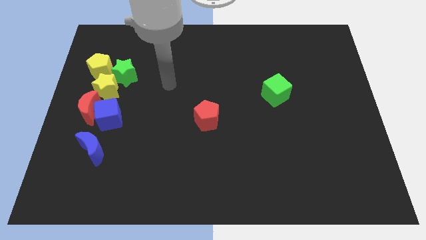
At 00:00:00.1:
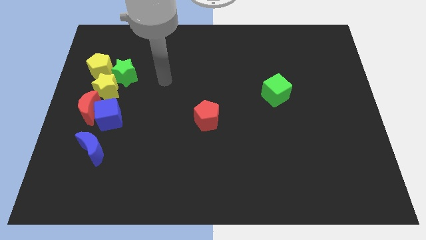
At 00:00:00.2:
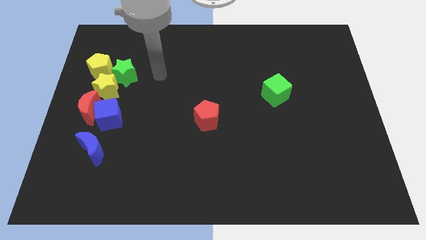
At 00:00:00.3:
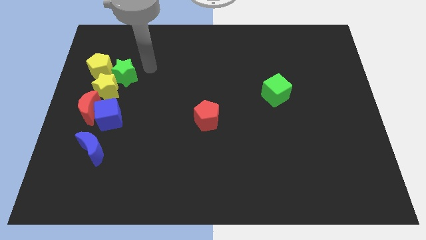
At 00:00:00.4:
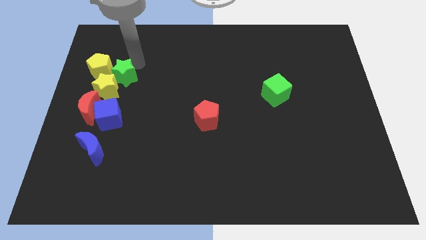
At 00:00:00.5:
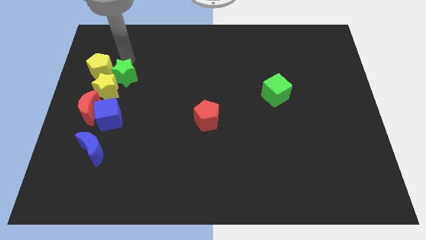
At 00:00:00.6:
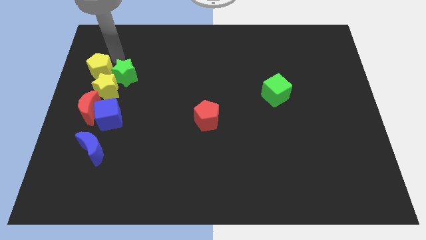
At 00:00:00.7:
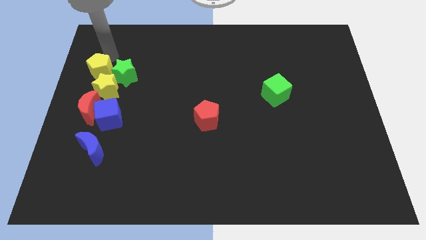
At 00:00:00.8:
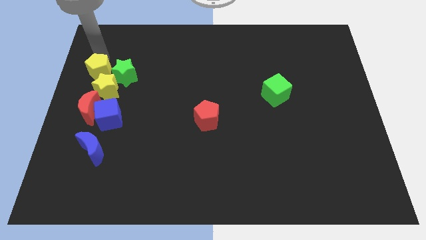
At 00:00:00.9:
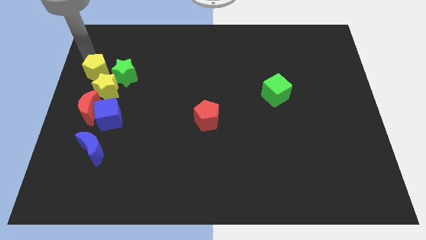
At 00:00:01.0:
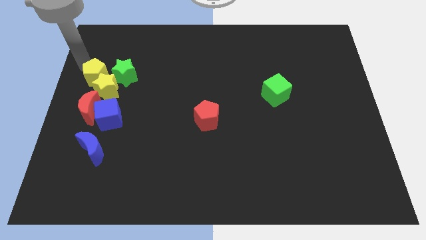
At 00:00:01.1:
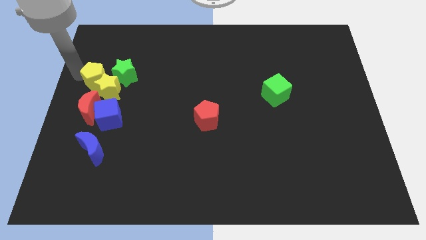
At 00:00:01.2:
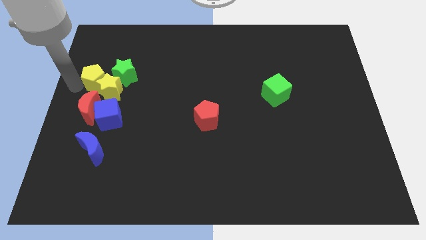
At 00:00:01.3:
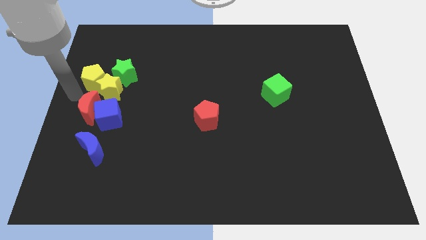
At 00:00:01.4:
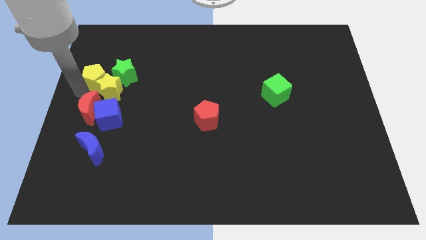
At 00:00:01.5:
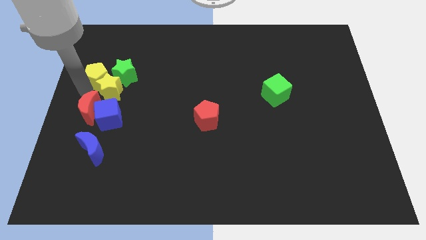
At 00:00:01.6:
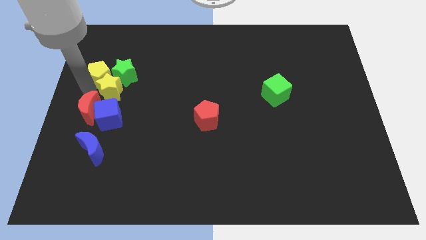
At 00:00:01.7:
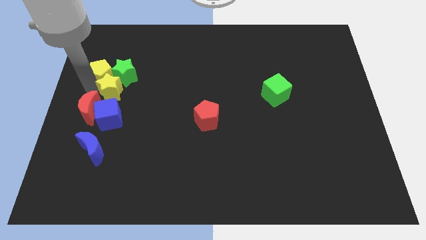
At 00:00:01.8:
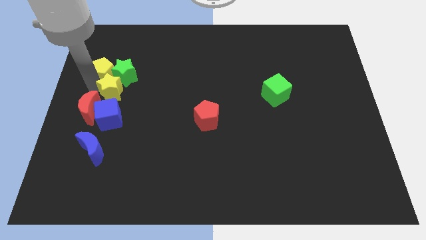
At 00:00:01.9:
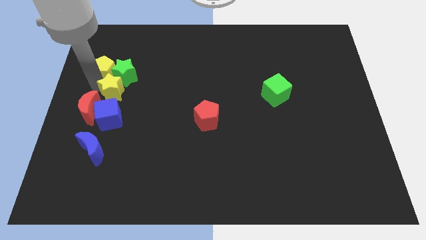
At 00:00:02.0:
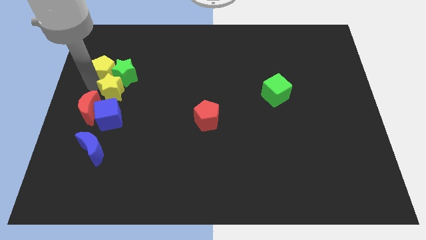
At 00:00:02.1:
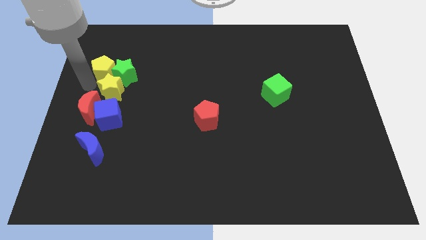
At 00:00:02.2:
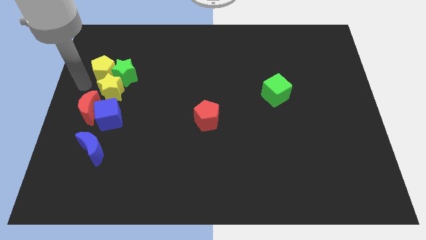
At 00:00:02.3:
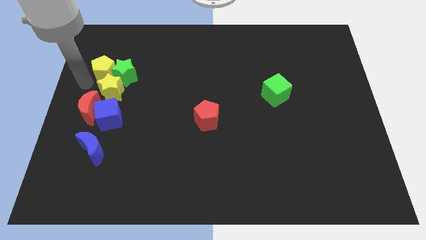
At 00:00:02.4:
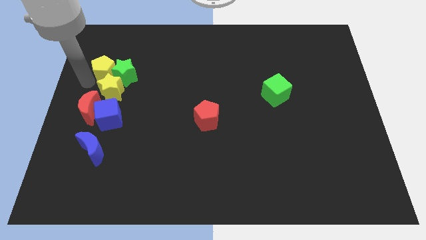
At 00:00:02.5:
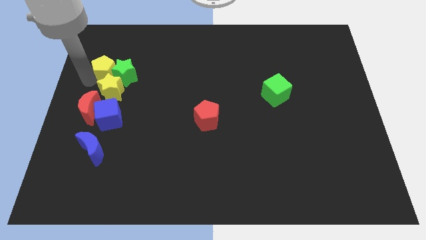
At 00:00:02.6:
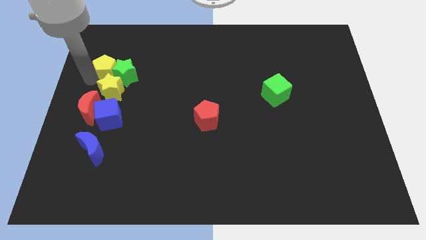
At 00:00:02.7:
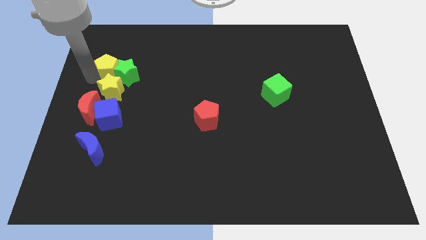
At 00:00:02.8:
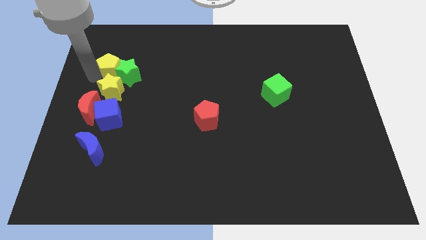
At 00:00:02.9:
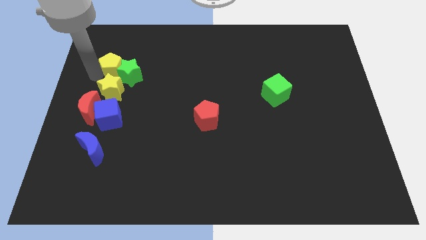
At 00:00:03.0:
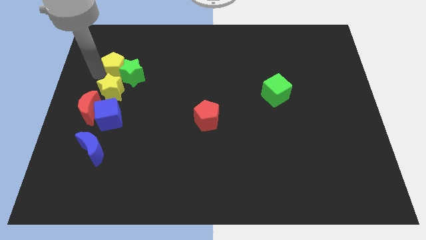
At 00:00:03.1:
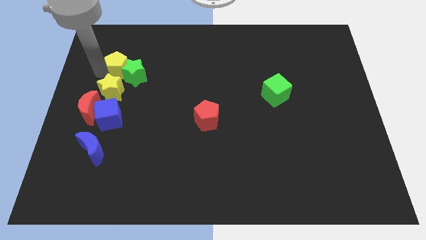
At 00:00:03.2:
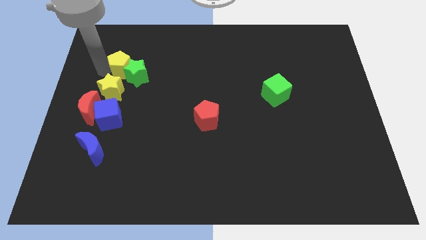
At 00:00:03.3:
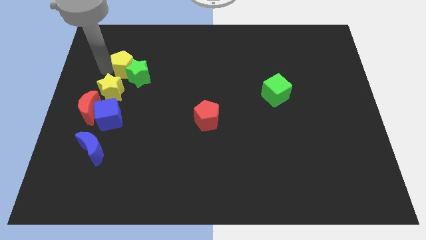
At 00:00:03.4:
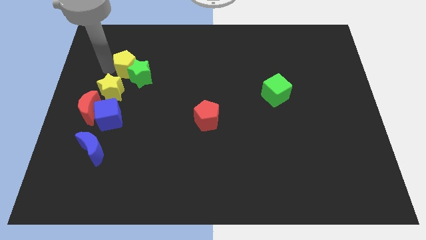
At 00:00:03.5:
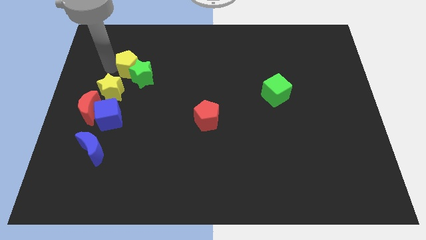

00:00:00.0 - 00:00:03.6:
slightly slide the yellow pentagon to the right

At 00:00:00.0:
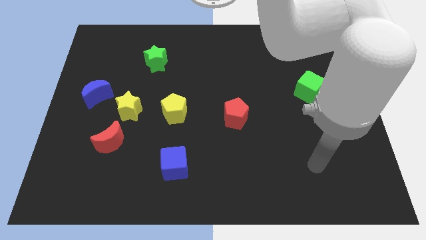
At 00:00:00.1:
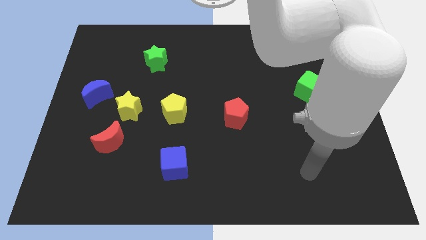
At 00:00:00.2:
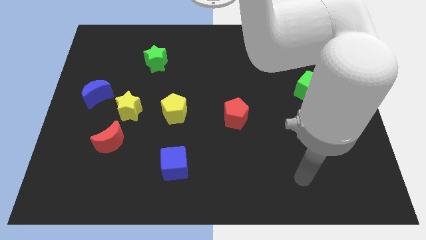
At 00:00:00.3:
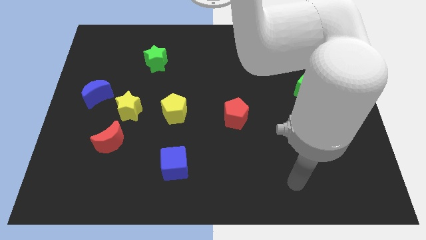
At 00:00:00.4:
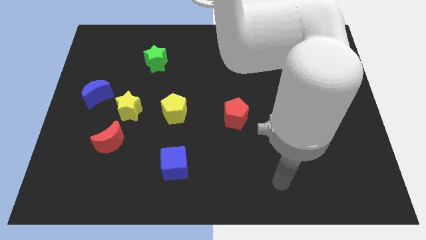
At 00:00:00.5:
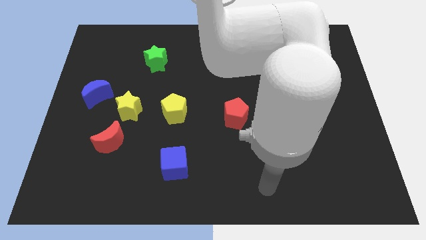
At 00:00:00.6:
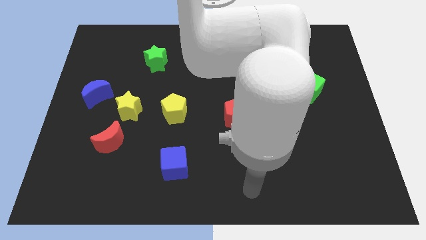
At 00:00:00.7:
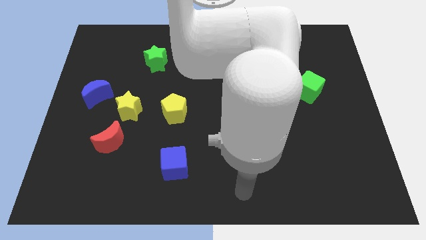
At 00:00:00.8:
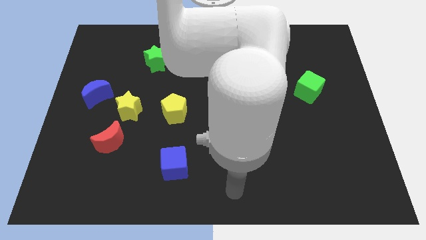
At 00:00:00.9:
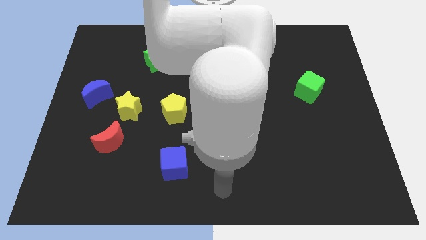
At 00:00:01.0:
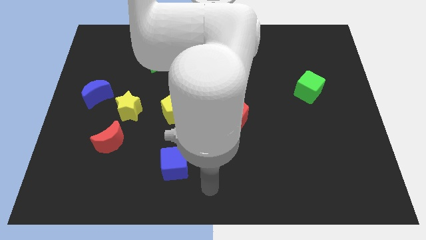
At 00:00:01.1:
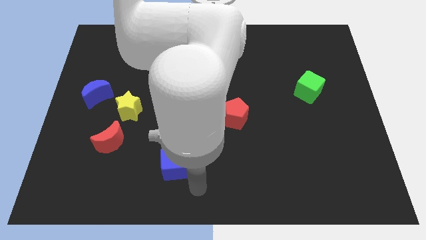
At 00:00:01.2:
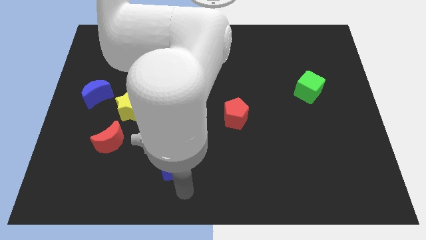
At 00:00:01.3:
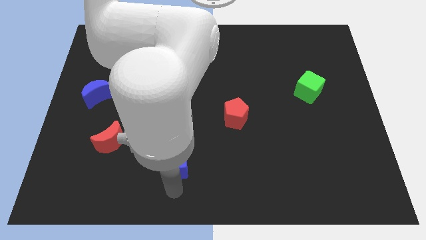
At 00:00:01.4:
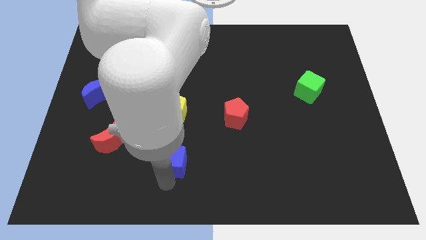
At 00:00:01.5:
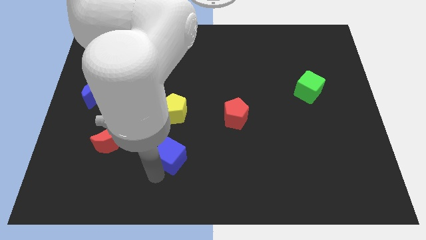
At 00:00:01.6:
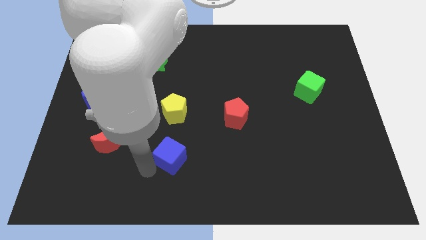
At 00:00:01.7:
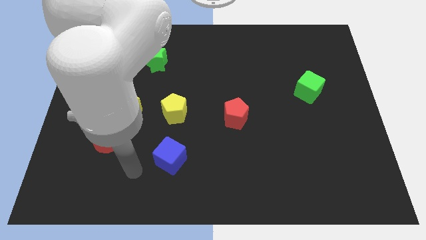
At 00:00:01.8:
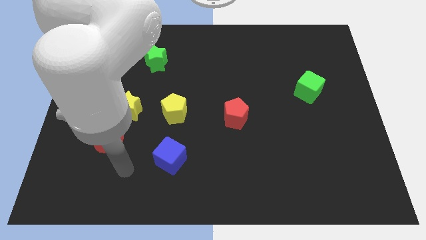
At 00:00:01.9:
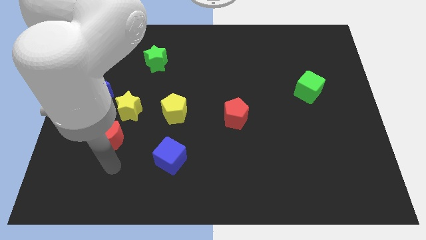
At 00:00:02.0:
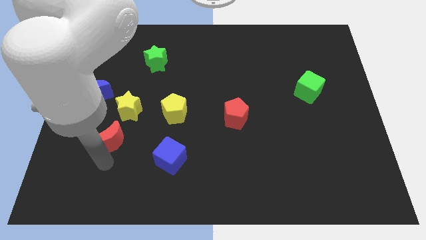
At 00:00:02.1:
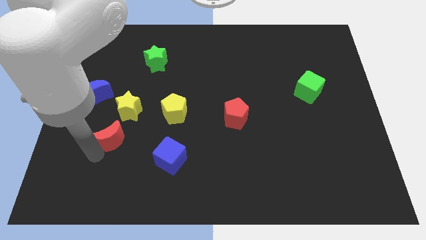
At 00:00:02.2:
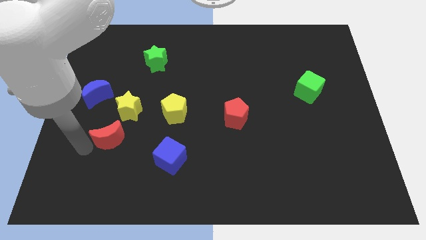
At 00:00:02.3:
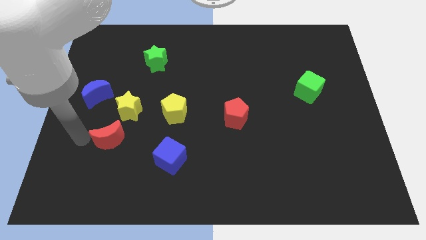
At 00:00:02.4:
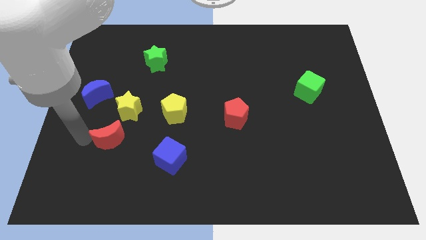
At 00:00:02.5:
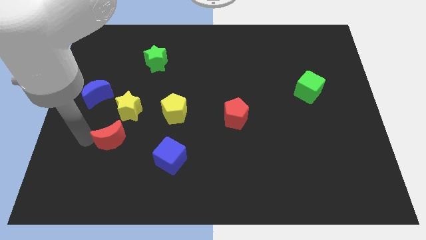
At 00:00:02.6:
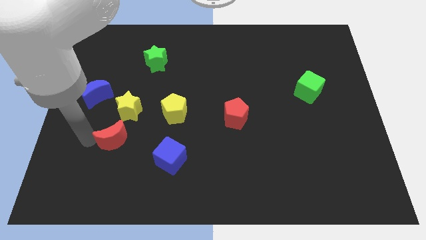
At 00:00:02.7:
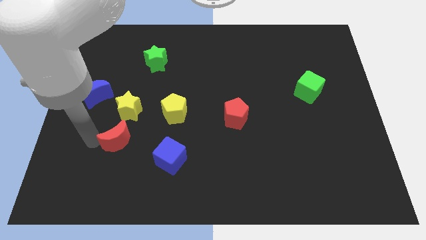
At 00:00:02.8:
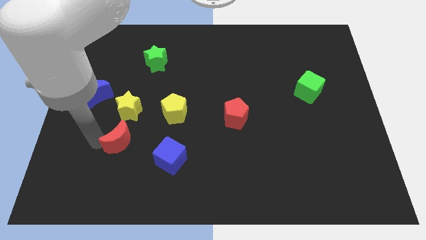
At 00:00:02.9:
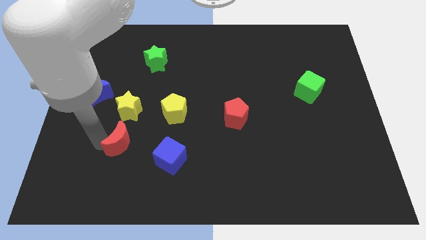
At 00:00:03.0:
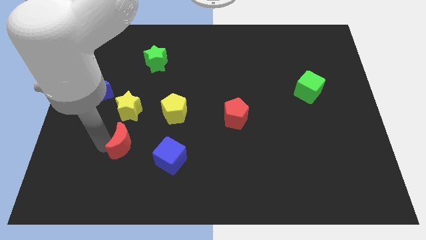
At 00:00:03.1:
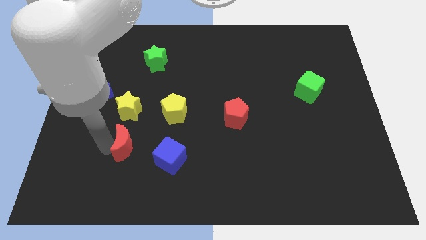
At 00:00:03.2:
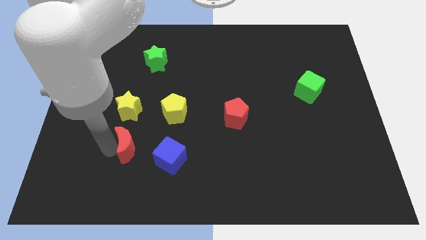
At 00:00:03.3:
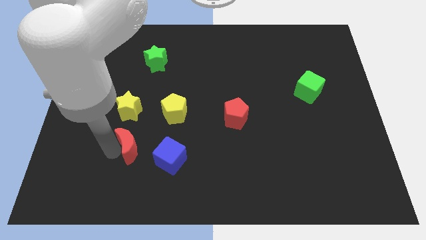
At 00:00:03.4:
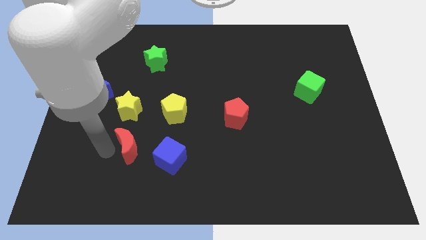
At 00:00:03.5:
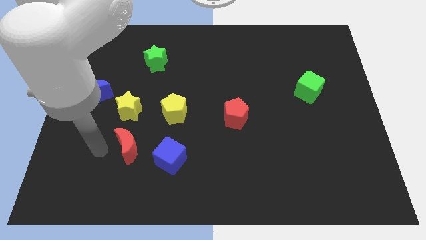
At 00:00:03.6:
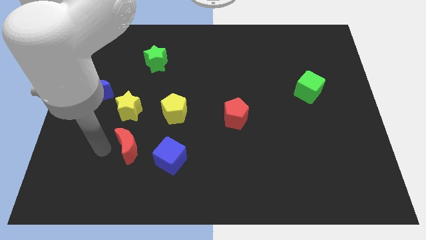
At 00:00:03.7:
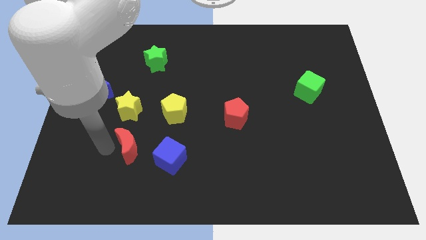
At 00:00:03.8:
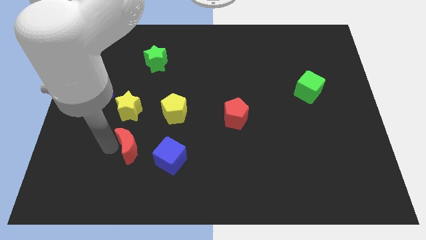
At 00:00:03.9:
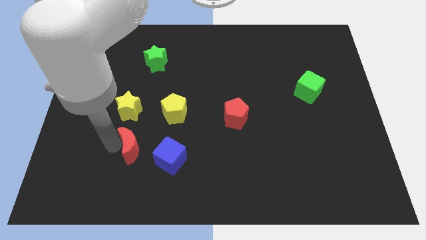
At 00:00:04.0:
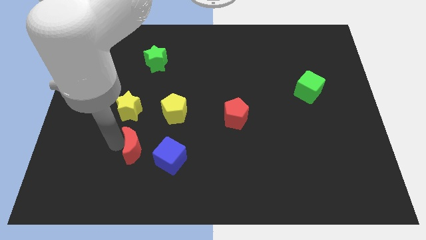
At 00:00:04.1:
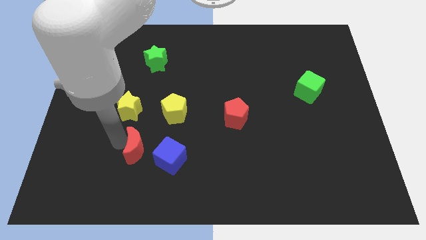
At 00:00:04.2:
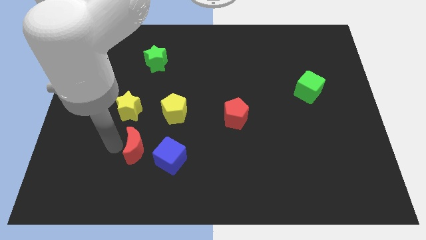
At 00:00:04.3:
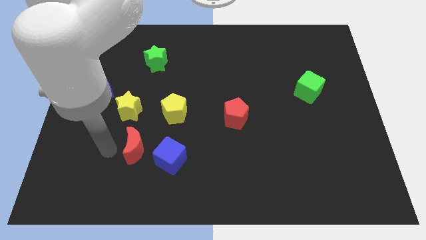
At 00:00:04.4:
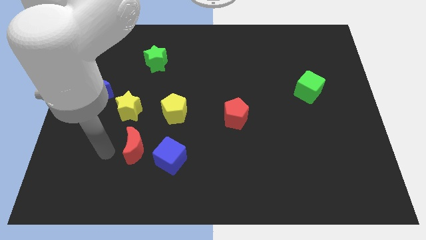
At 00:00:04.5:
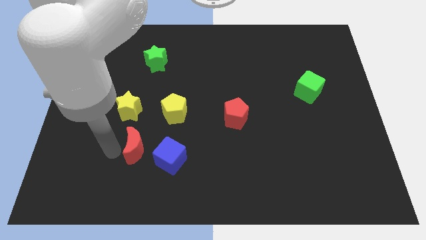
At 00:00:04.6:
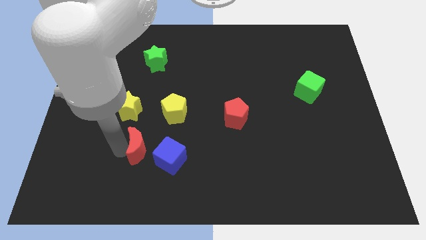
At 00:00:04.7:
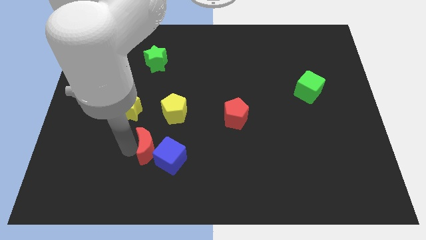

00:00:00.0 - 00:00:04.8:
move the red moon a little bit to the right

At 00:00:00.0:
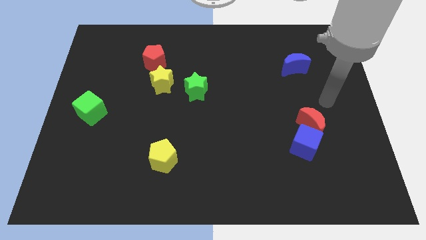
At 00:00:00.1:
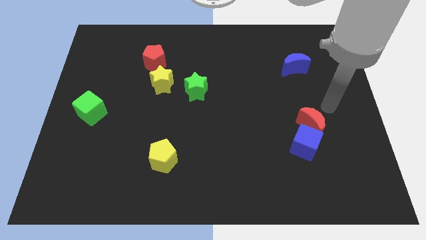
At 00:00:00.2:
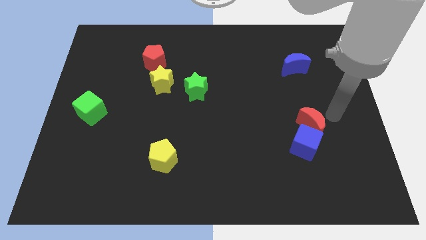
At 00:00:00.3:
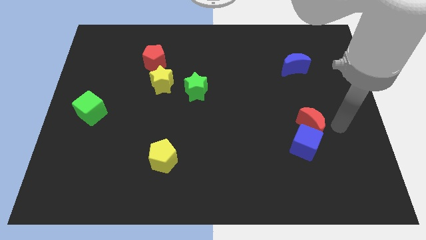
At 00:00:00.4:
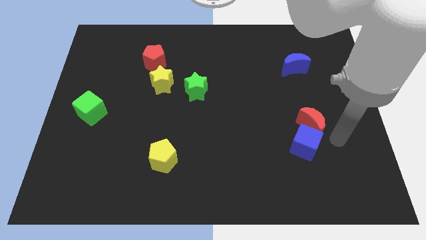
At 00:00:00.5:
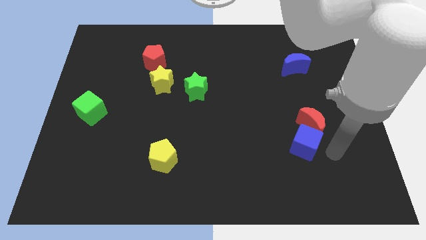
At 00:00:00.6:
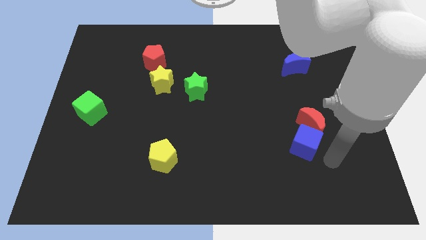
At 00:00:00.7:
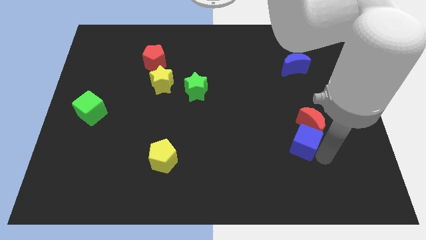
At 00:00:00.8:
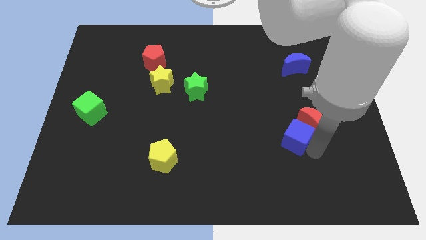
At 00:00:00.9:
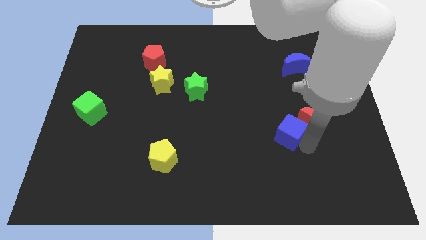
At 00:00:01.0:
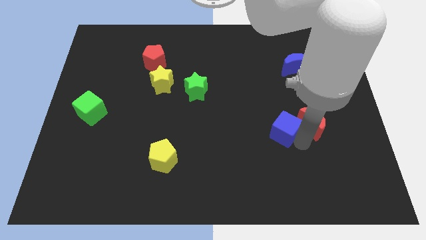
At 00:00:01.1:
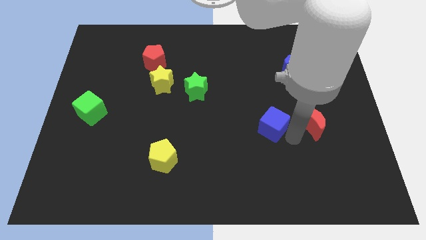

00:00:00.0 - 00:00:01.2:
slightly slide the blue cube up and to the left
